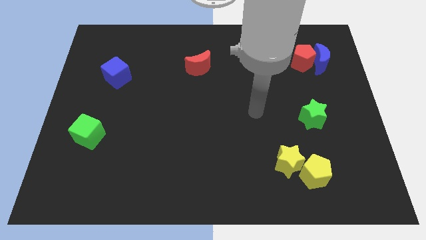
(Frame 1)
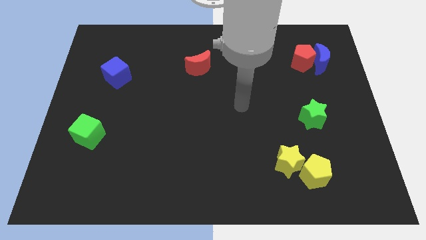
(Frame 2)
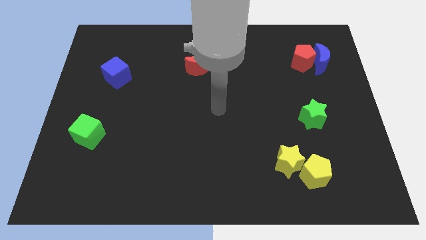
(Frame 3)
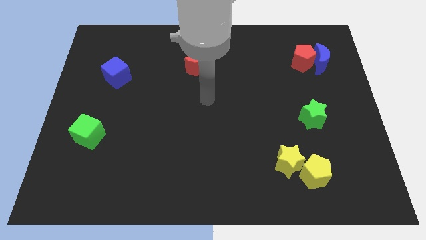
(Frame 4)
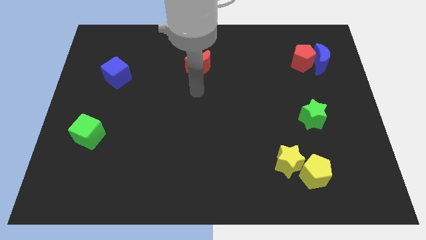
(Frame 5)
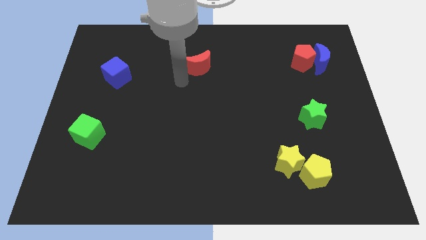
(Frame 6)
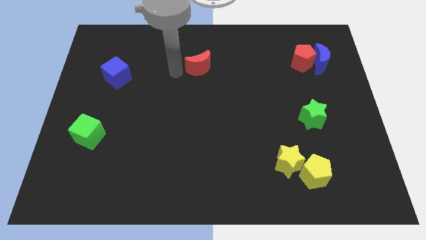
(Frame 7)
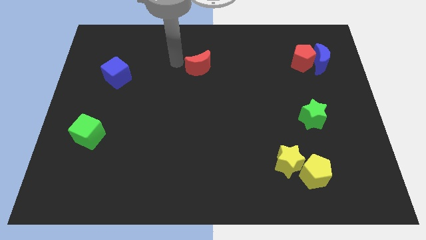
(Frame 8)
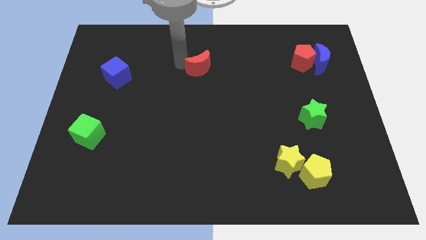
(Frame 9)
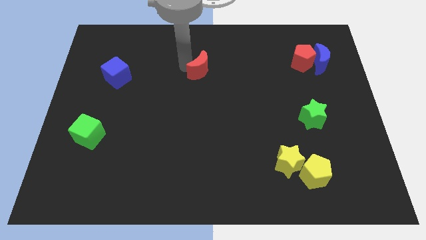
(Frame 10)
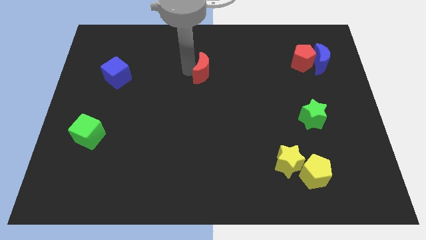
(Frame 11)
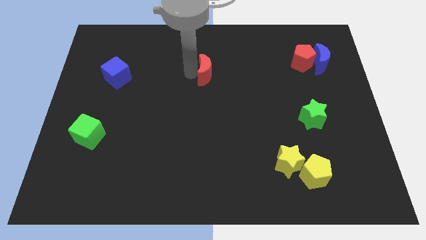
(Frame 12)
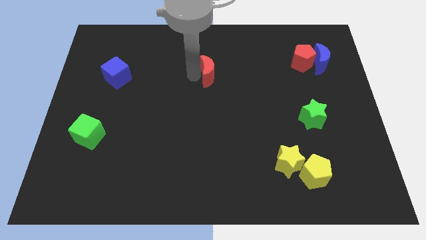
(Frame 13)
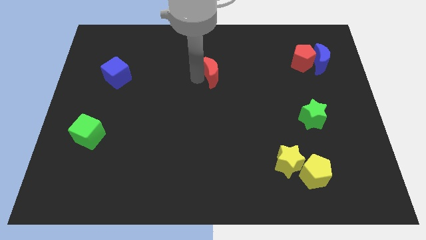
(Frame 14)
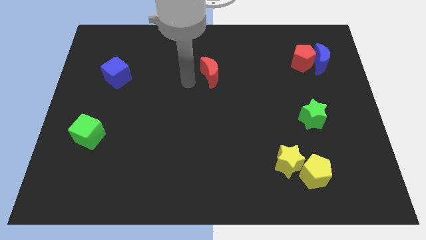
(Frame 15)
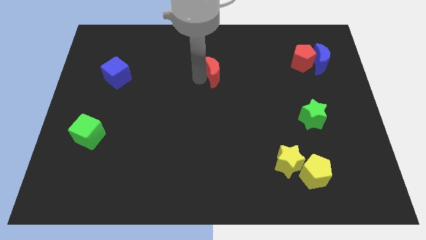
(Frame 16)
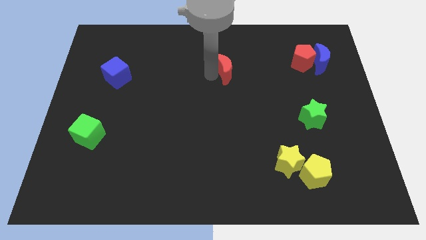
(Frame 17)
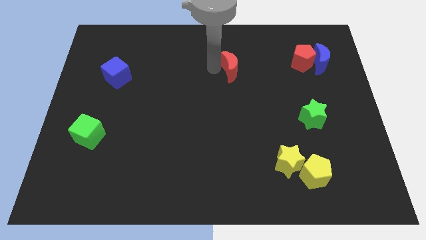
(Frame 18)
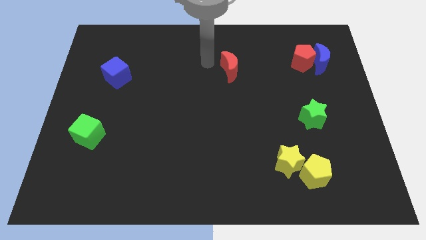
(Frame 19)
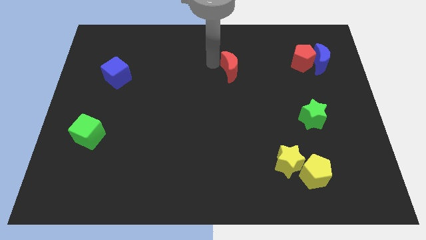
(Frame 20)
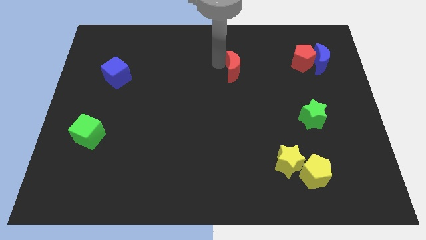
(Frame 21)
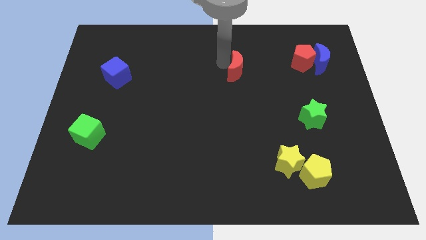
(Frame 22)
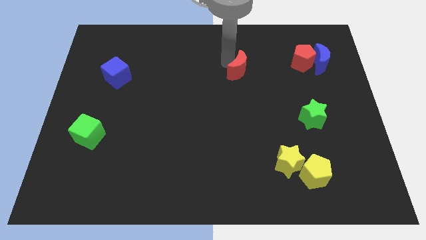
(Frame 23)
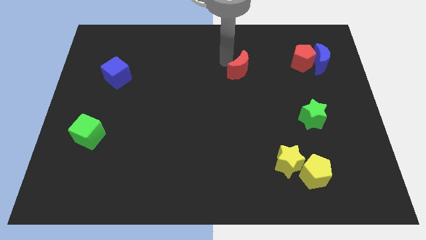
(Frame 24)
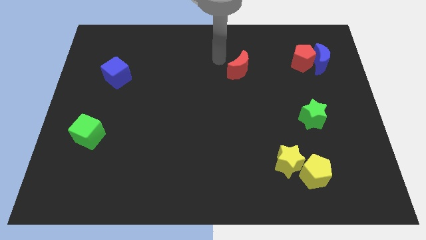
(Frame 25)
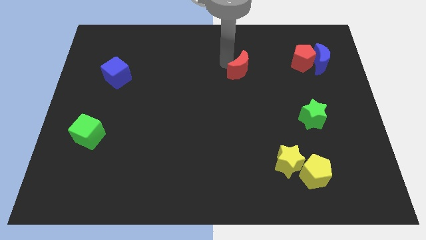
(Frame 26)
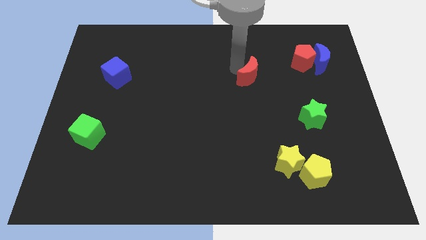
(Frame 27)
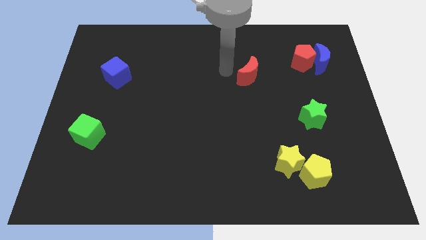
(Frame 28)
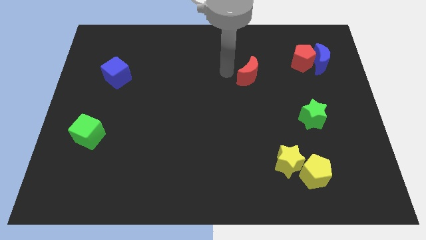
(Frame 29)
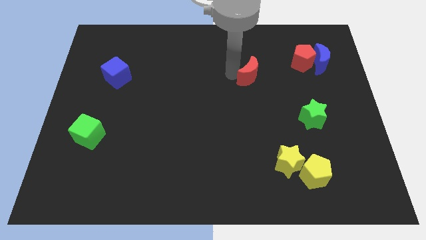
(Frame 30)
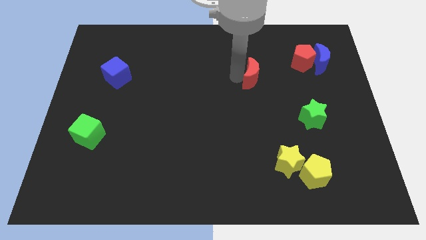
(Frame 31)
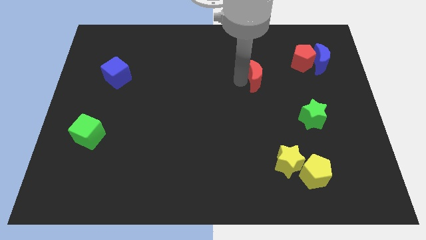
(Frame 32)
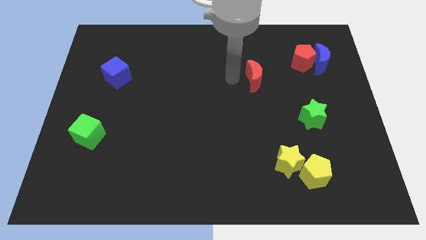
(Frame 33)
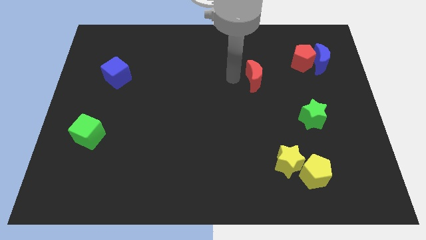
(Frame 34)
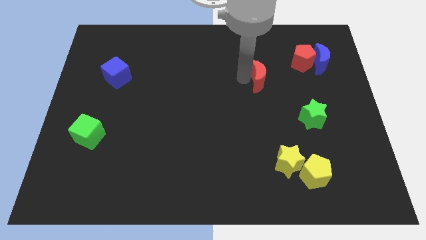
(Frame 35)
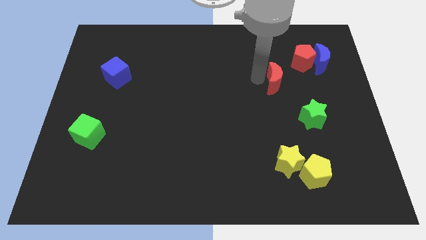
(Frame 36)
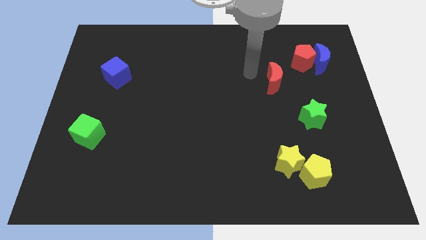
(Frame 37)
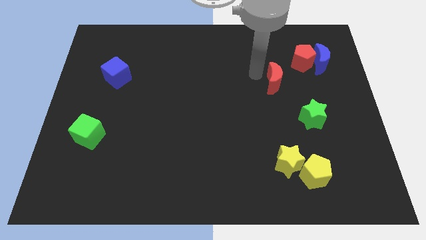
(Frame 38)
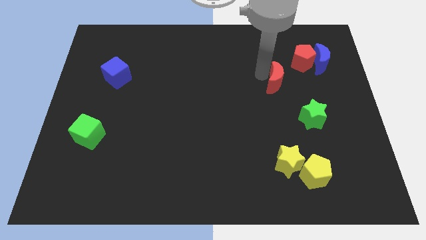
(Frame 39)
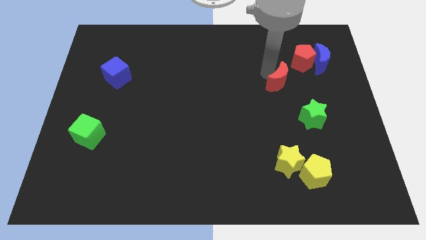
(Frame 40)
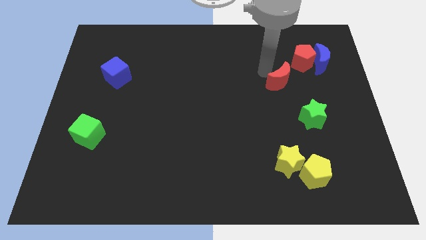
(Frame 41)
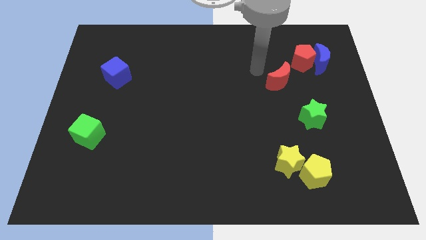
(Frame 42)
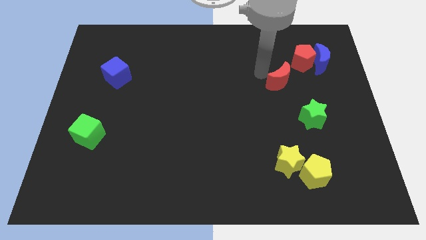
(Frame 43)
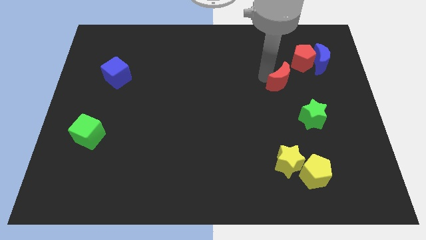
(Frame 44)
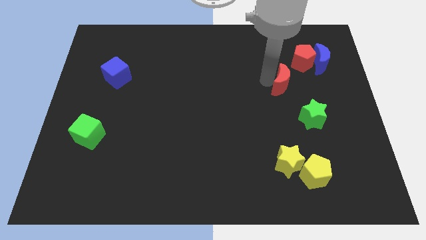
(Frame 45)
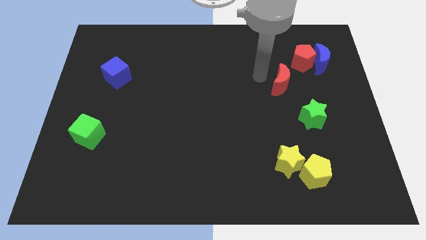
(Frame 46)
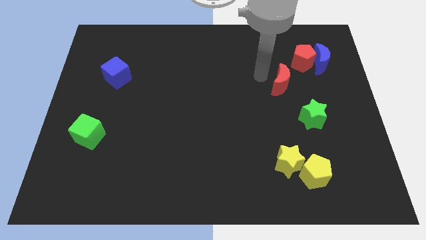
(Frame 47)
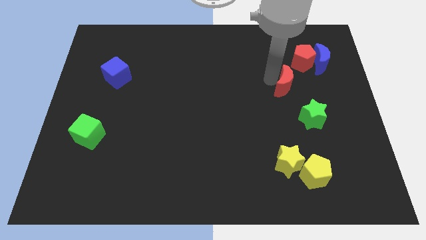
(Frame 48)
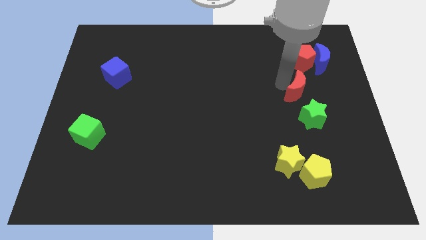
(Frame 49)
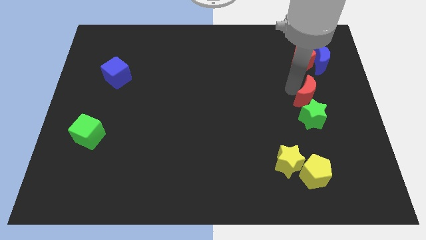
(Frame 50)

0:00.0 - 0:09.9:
move the red moon to the top right side of the green star

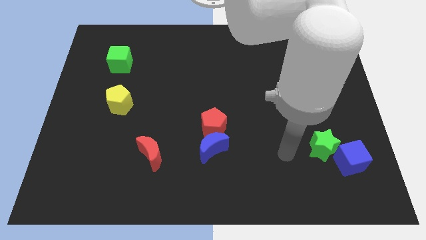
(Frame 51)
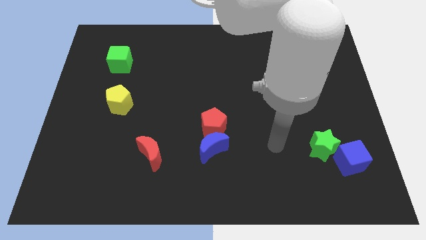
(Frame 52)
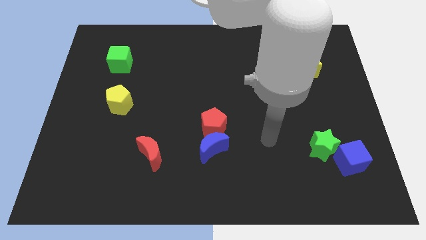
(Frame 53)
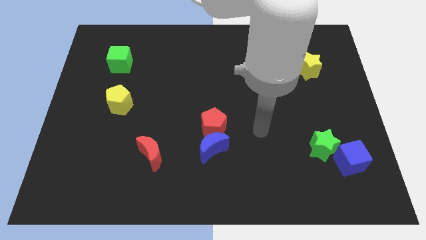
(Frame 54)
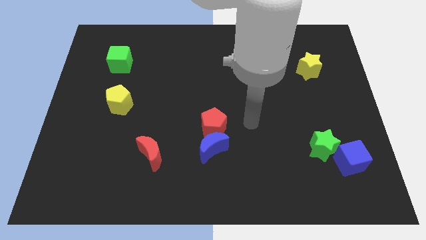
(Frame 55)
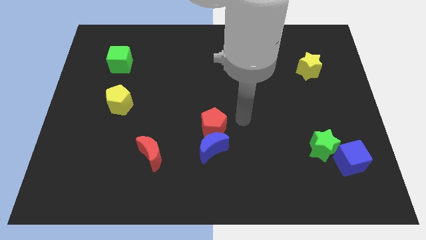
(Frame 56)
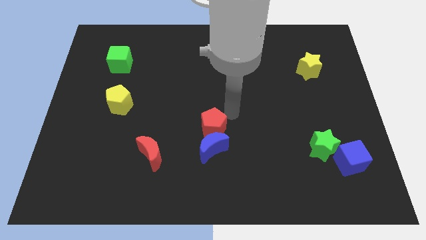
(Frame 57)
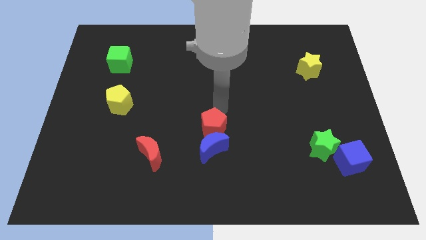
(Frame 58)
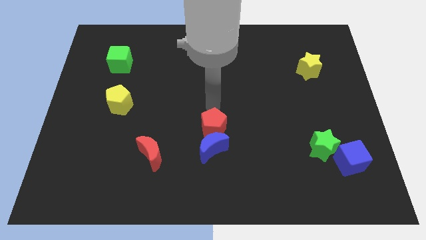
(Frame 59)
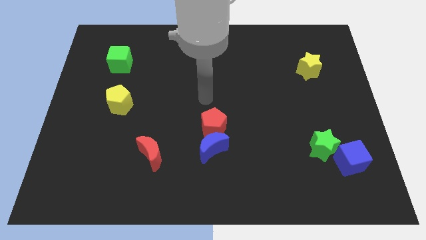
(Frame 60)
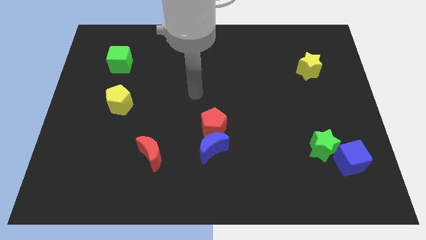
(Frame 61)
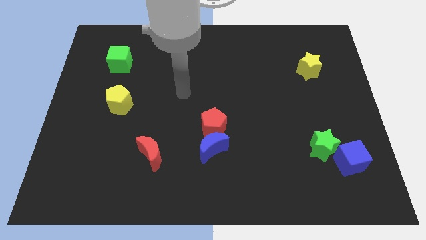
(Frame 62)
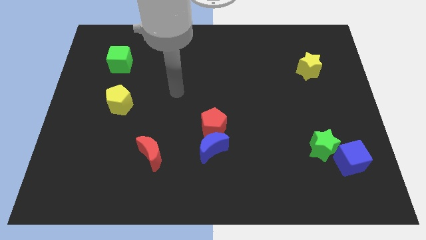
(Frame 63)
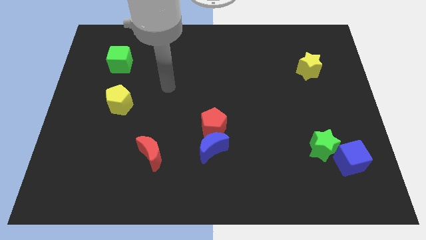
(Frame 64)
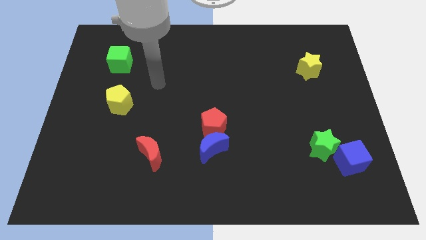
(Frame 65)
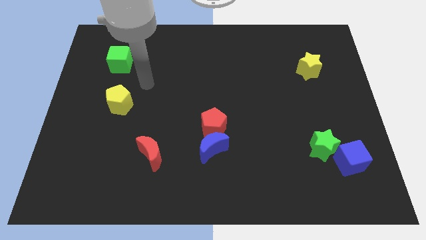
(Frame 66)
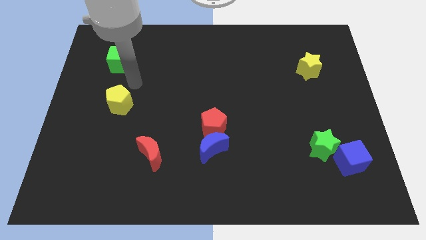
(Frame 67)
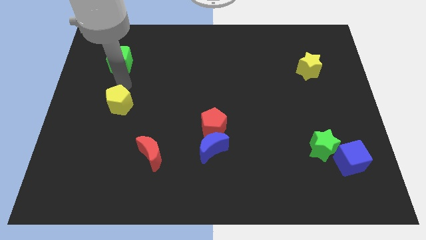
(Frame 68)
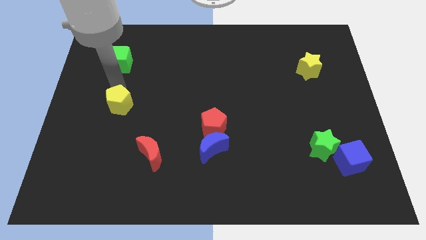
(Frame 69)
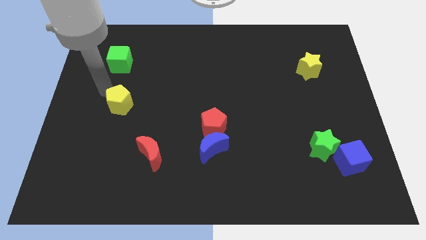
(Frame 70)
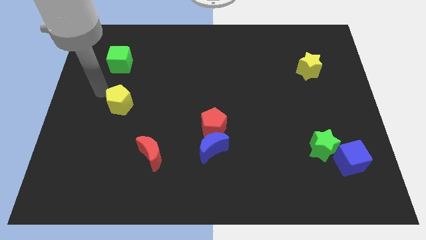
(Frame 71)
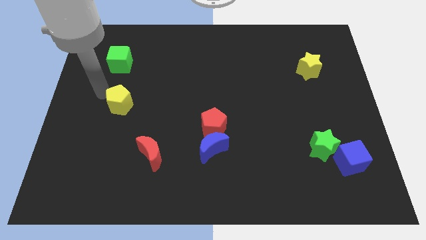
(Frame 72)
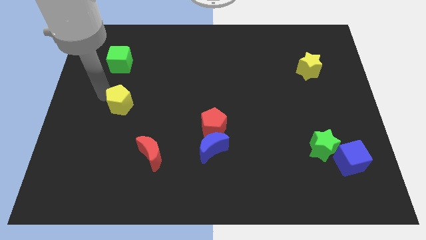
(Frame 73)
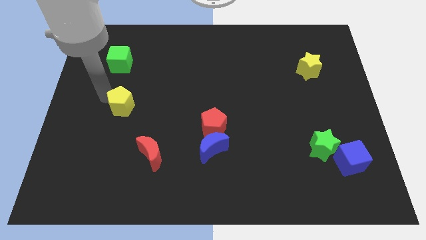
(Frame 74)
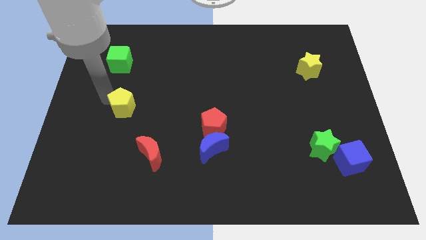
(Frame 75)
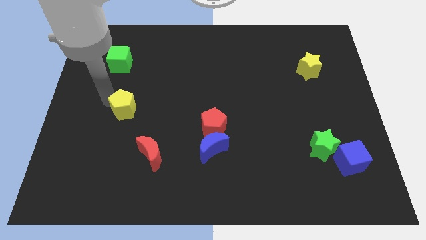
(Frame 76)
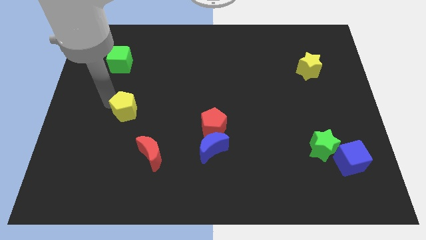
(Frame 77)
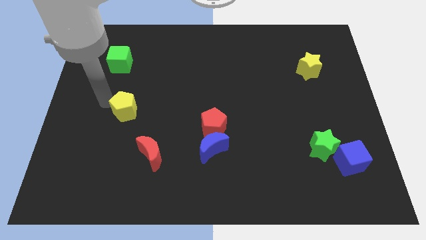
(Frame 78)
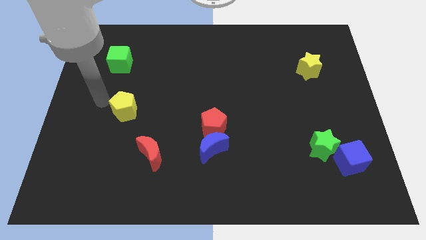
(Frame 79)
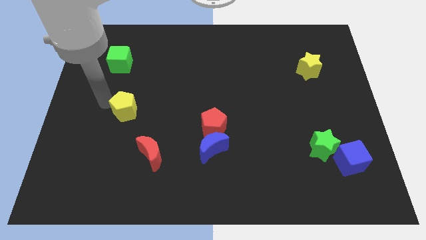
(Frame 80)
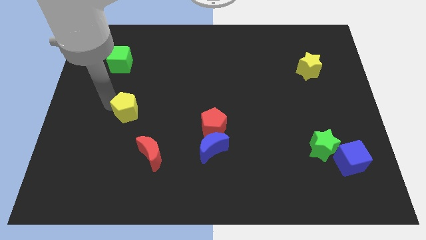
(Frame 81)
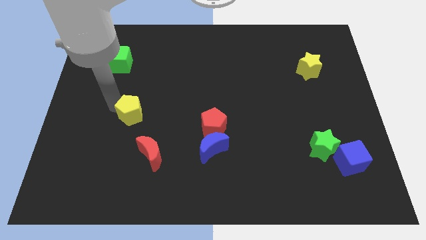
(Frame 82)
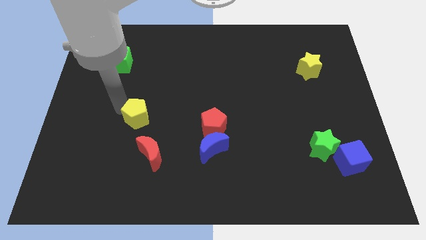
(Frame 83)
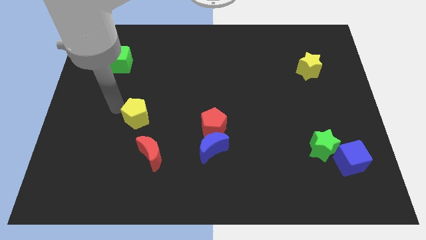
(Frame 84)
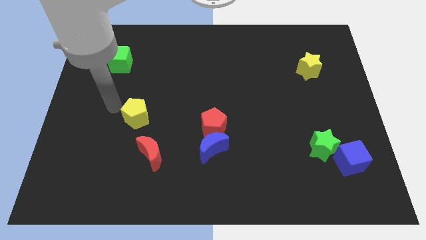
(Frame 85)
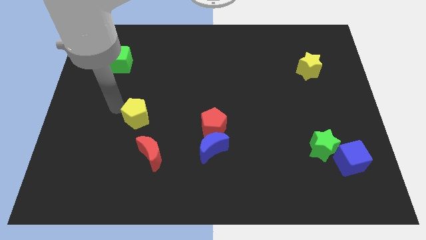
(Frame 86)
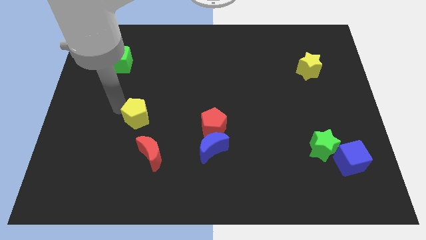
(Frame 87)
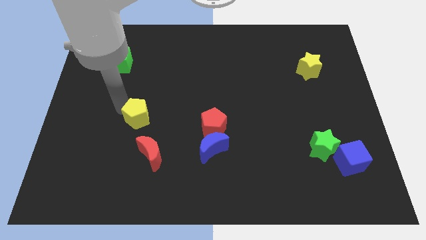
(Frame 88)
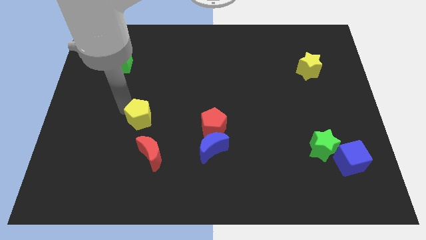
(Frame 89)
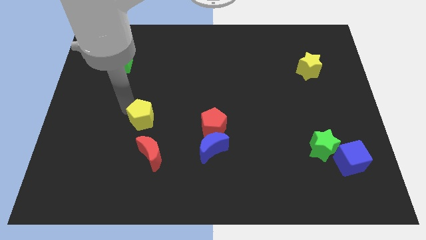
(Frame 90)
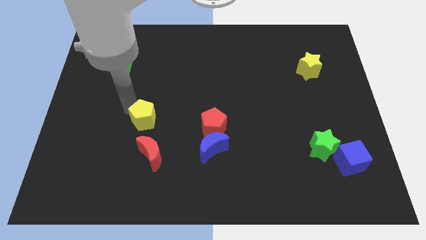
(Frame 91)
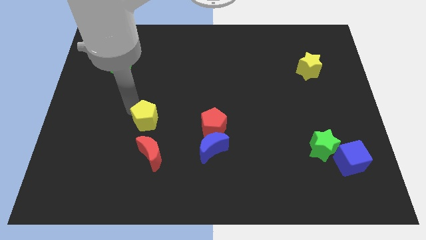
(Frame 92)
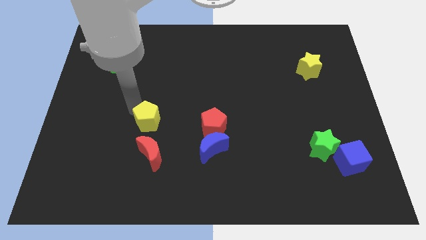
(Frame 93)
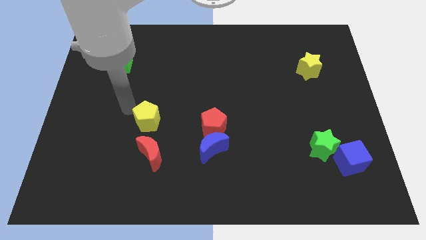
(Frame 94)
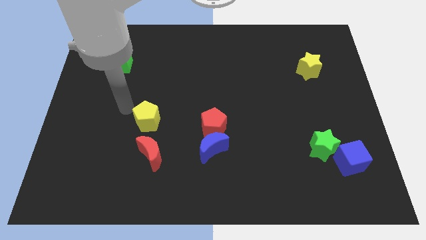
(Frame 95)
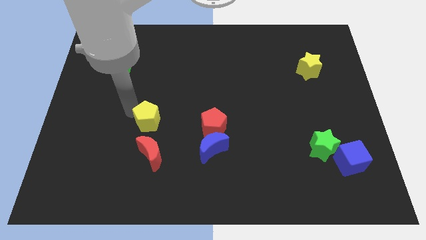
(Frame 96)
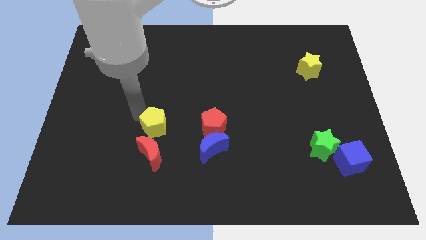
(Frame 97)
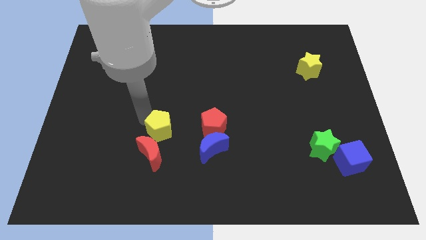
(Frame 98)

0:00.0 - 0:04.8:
slide the yellow pentagon to the top right of the red moon
